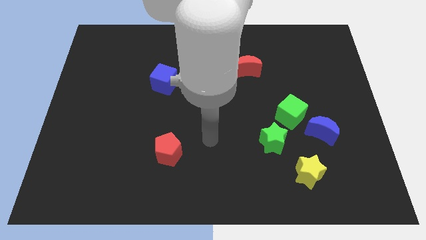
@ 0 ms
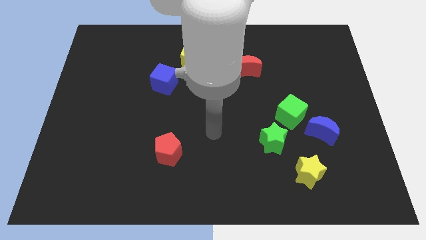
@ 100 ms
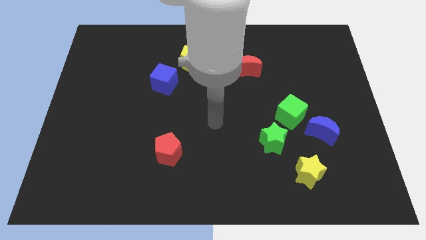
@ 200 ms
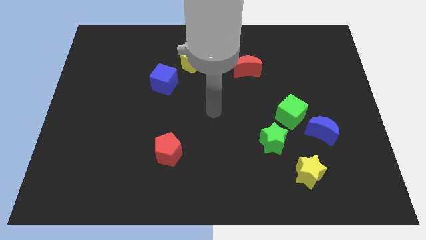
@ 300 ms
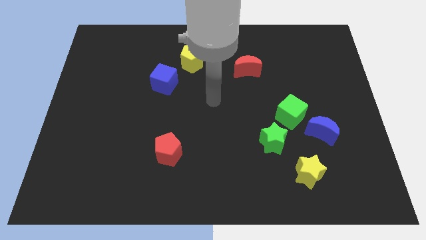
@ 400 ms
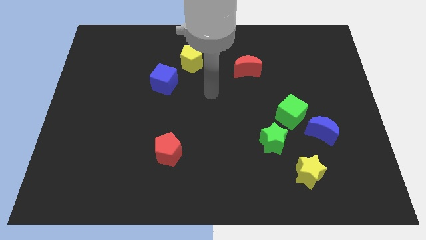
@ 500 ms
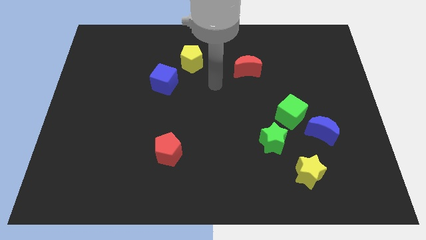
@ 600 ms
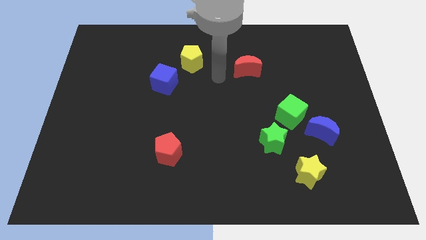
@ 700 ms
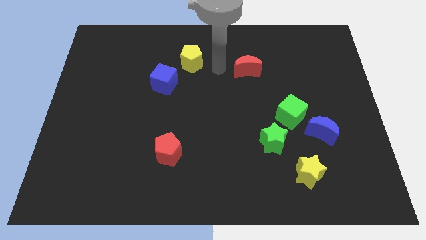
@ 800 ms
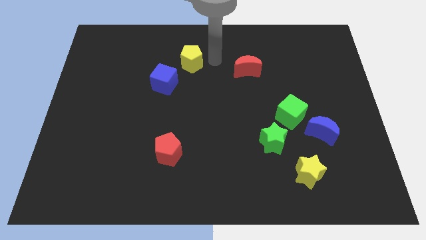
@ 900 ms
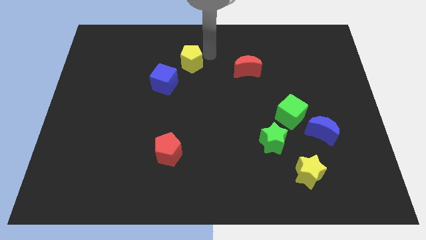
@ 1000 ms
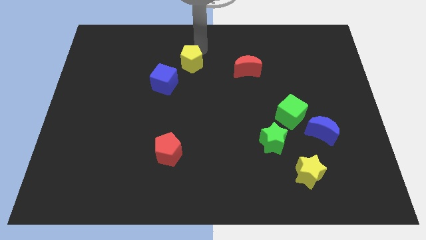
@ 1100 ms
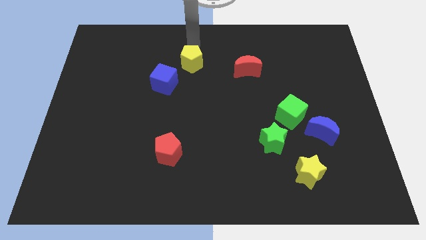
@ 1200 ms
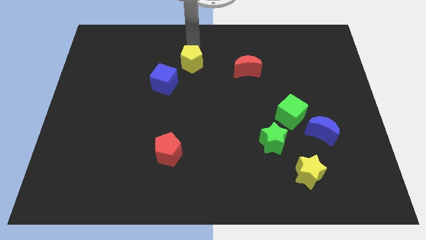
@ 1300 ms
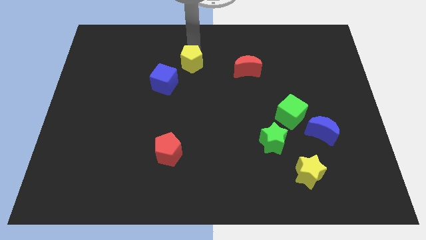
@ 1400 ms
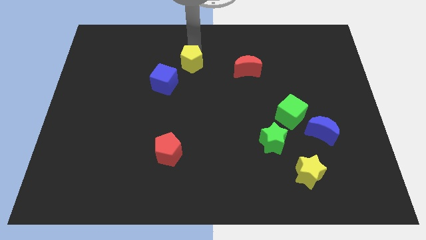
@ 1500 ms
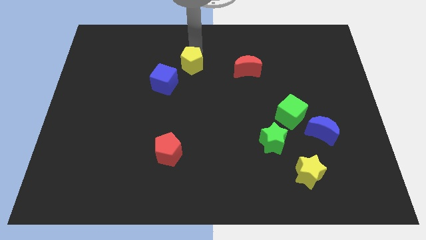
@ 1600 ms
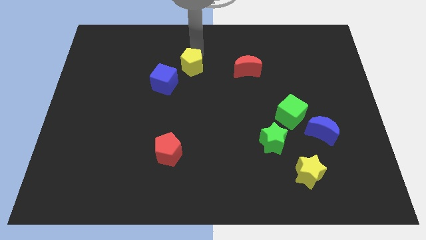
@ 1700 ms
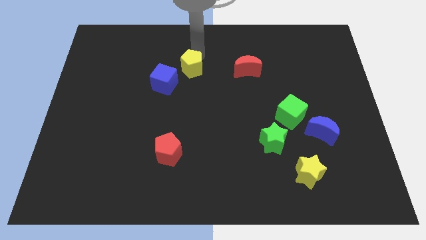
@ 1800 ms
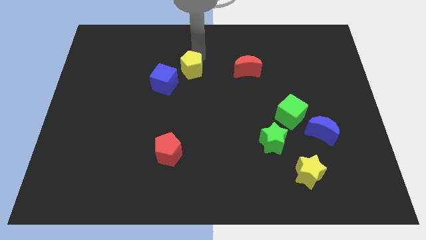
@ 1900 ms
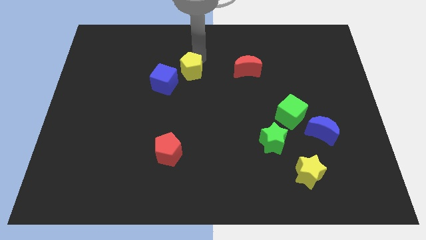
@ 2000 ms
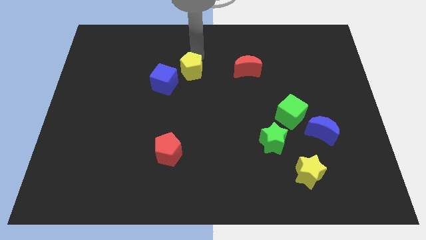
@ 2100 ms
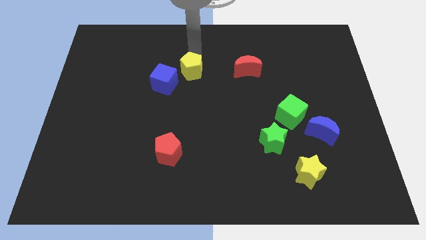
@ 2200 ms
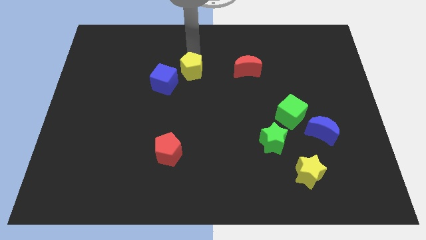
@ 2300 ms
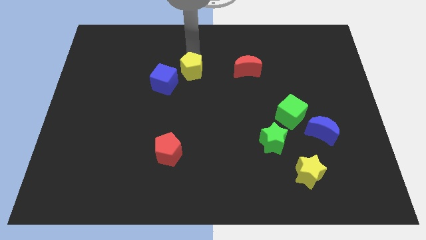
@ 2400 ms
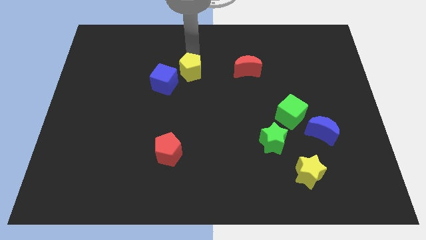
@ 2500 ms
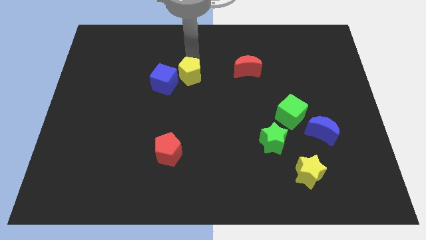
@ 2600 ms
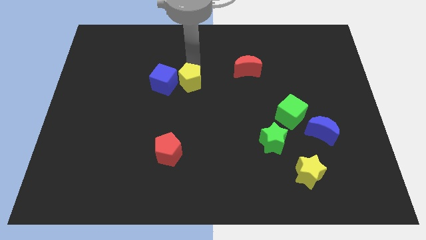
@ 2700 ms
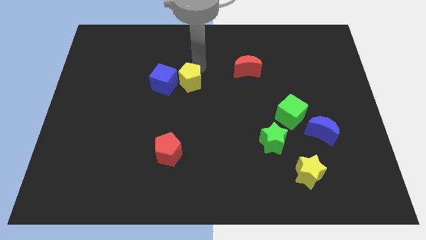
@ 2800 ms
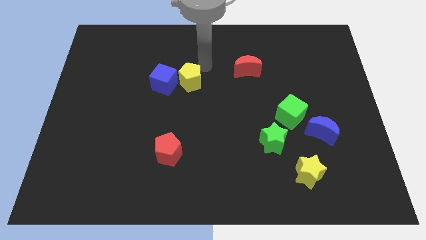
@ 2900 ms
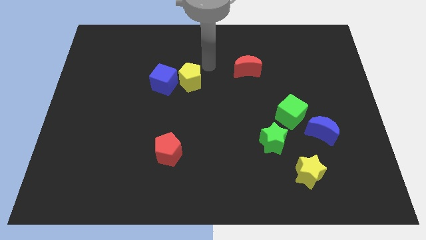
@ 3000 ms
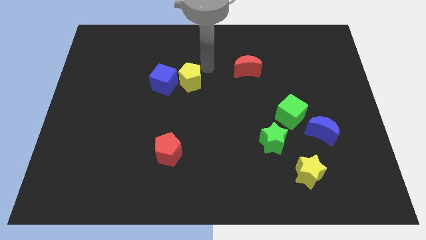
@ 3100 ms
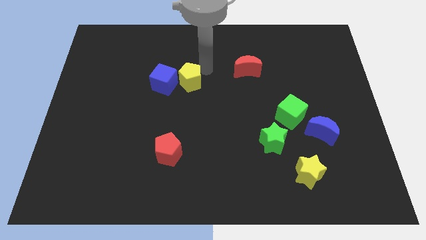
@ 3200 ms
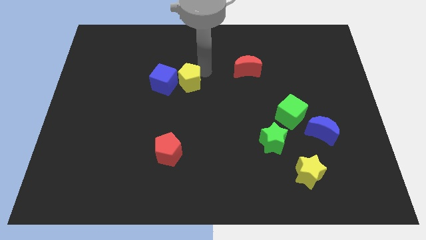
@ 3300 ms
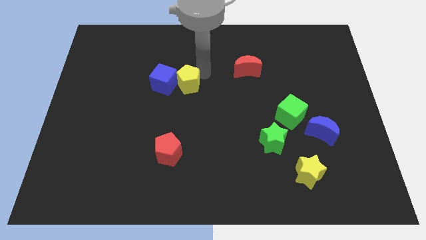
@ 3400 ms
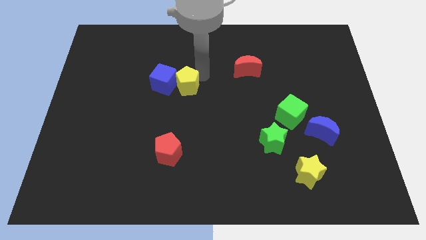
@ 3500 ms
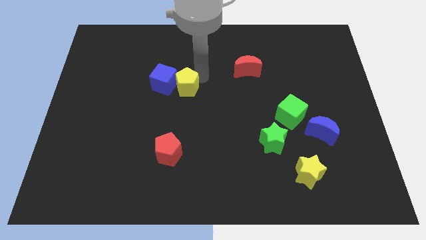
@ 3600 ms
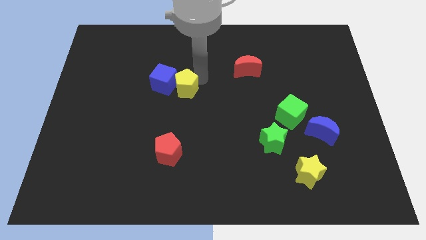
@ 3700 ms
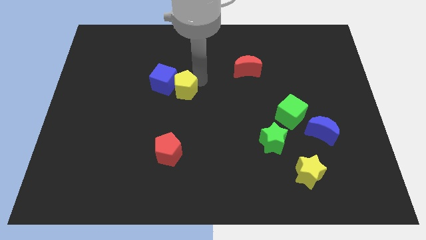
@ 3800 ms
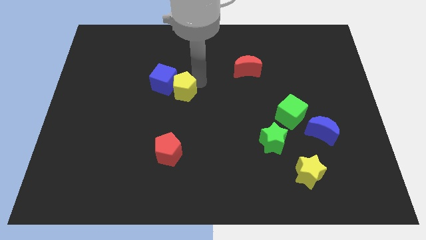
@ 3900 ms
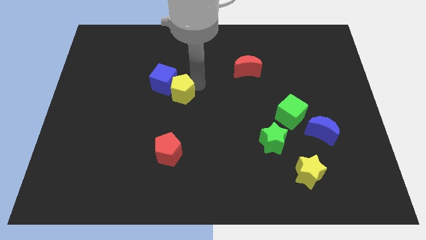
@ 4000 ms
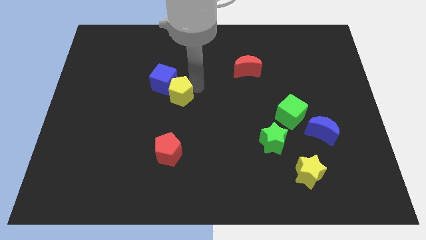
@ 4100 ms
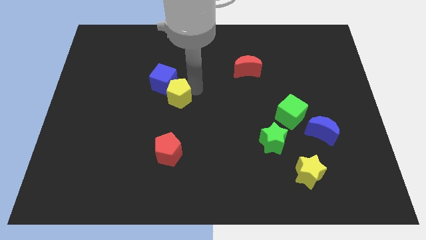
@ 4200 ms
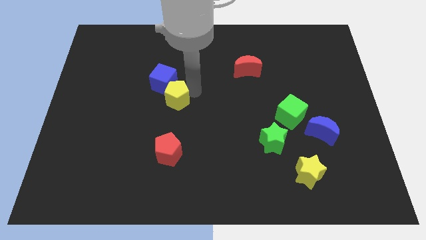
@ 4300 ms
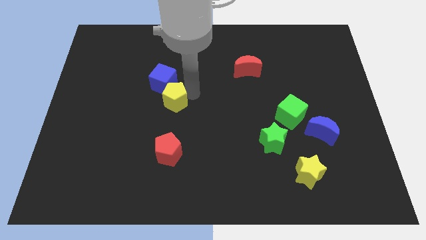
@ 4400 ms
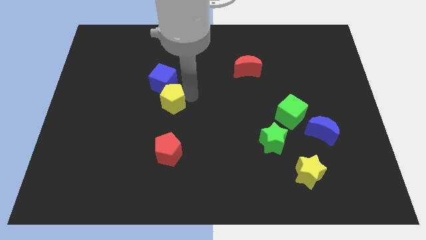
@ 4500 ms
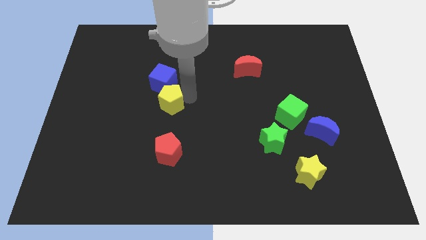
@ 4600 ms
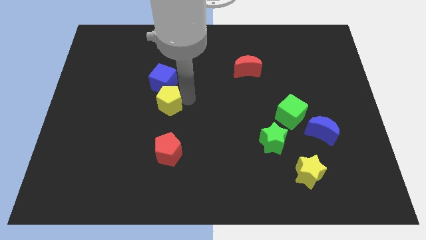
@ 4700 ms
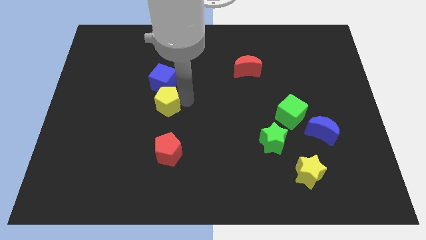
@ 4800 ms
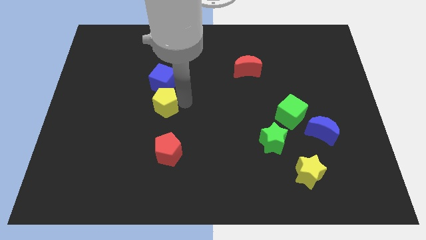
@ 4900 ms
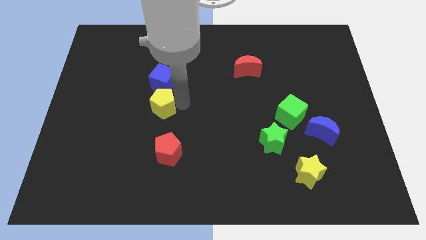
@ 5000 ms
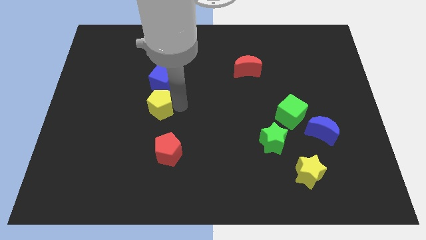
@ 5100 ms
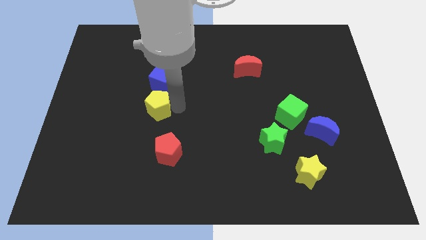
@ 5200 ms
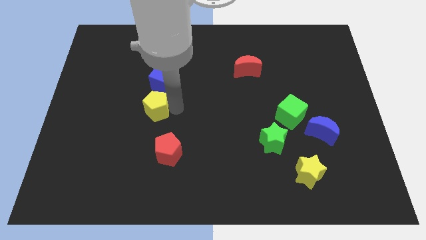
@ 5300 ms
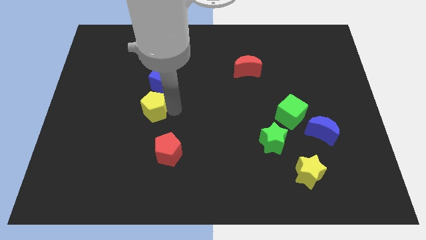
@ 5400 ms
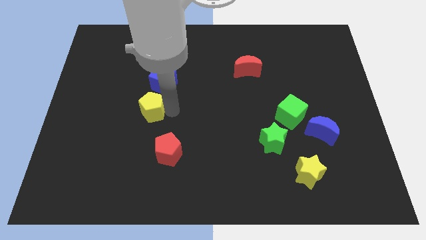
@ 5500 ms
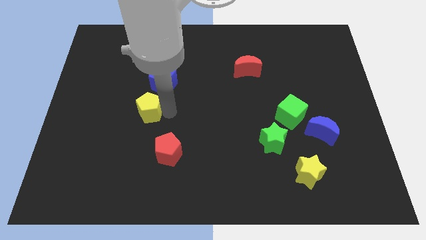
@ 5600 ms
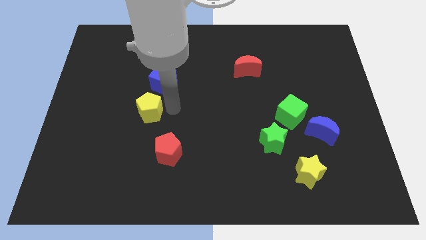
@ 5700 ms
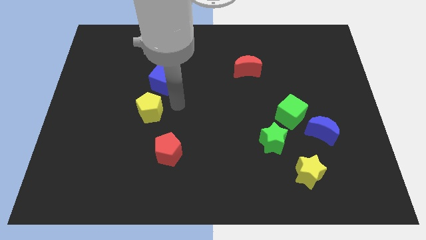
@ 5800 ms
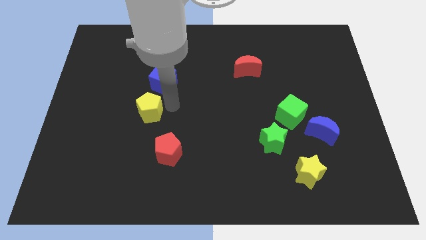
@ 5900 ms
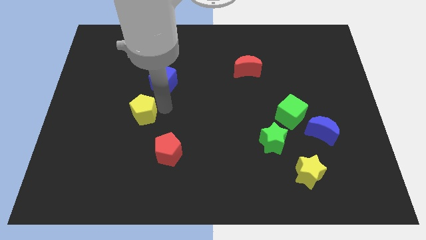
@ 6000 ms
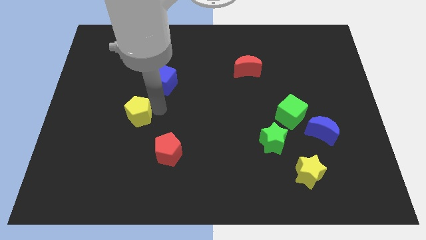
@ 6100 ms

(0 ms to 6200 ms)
slide the yellow pentagon downwards and left

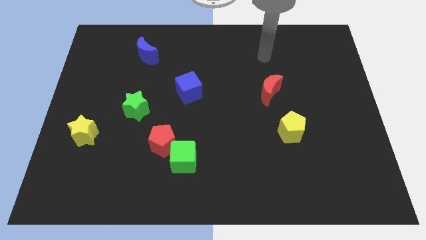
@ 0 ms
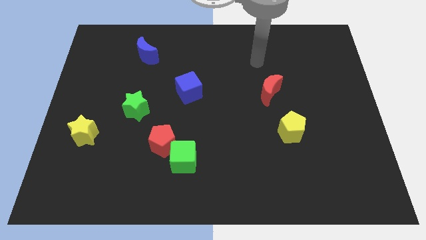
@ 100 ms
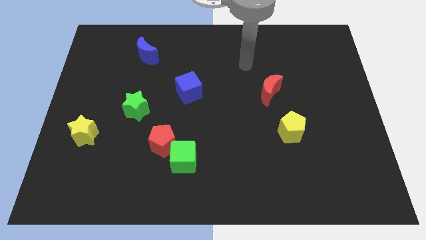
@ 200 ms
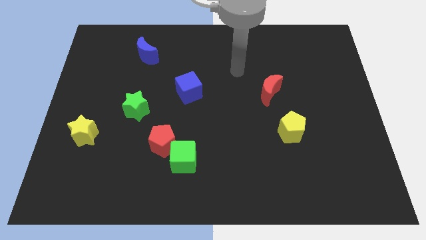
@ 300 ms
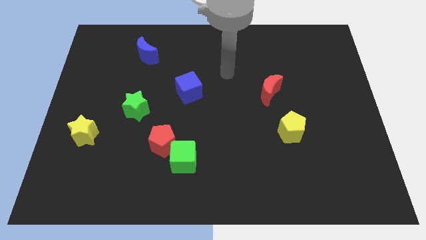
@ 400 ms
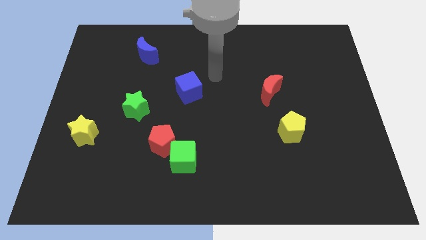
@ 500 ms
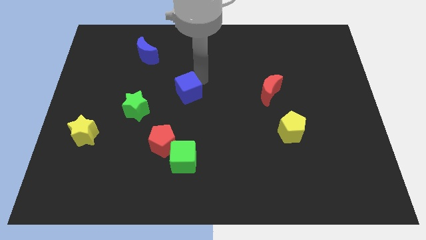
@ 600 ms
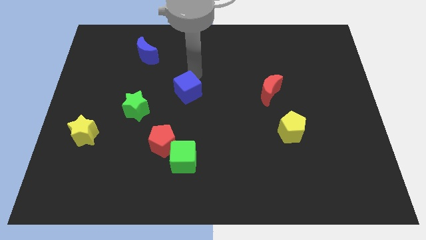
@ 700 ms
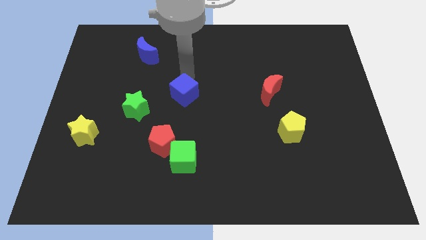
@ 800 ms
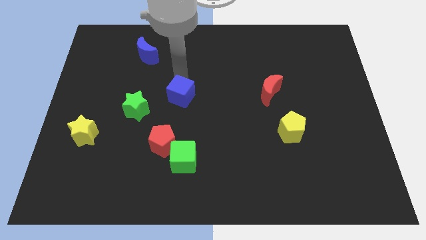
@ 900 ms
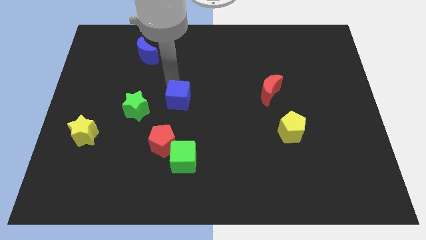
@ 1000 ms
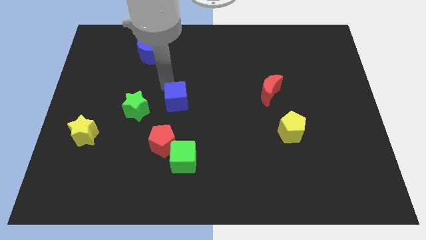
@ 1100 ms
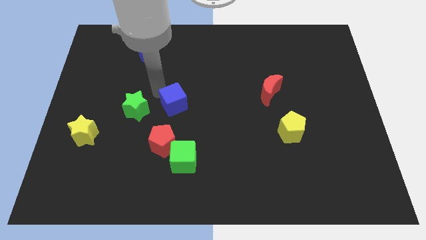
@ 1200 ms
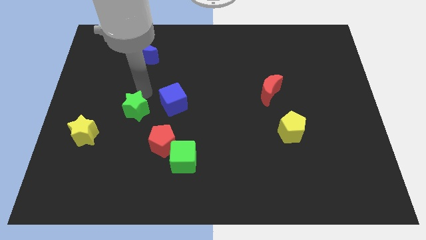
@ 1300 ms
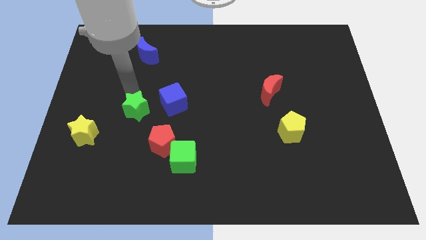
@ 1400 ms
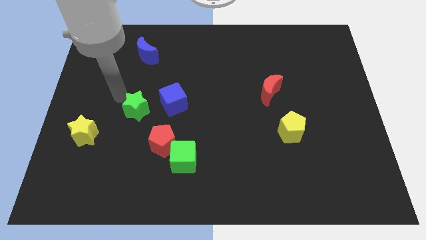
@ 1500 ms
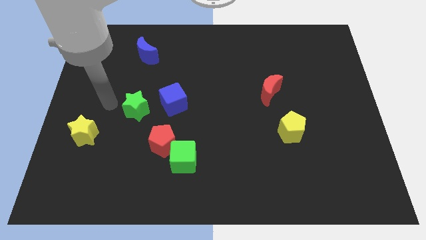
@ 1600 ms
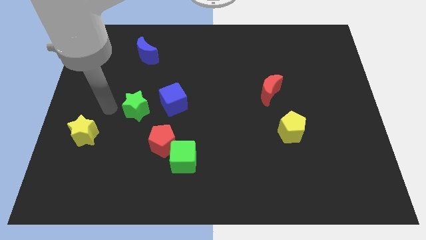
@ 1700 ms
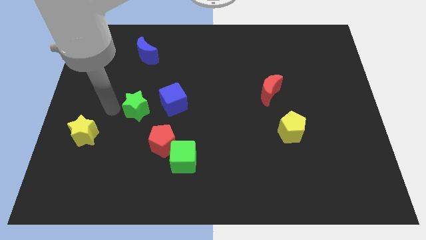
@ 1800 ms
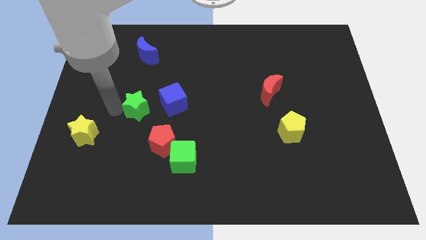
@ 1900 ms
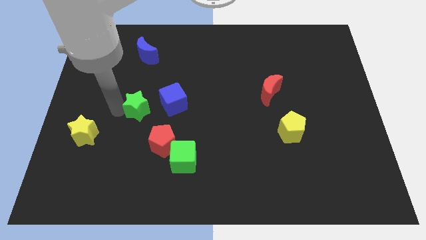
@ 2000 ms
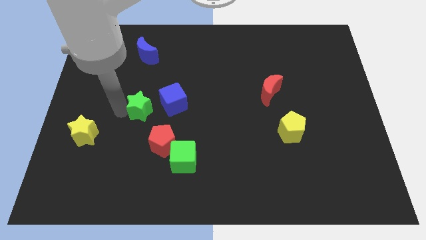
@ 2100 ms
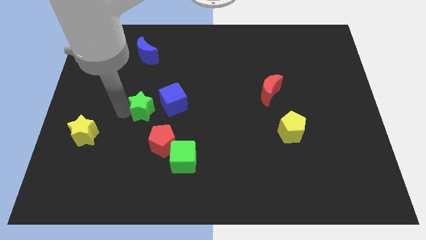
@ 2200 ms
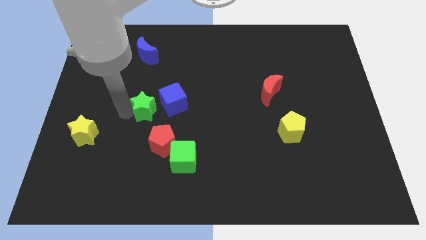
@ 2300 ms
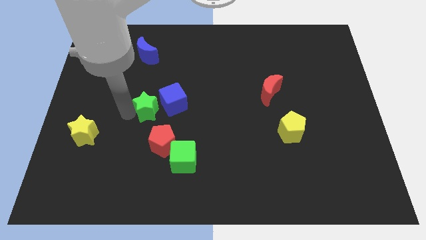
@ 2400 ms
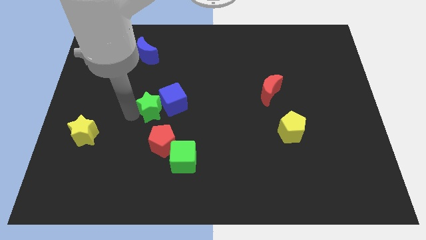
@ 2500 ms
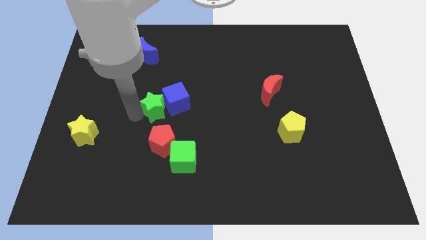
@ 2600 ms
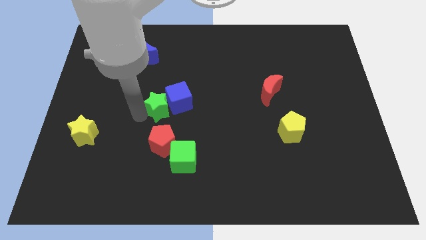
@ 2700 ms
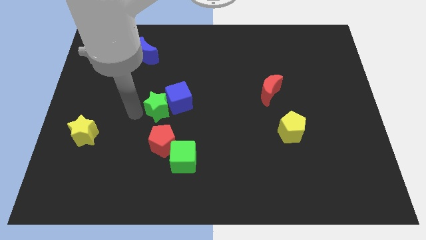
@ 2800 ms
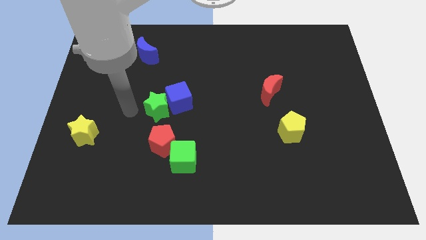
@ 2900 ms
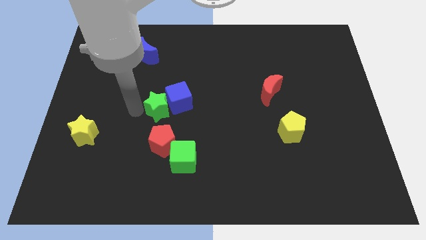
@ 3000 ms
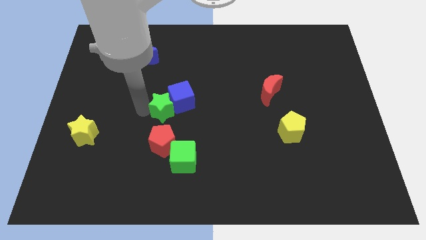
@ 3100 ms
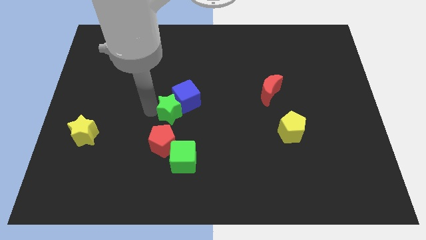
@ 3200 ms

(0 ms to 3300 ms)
push the green star right a bit
